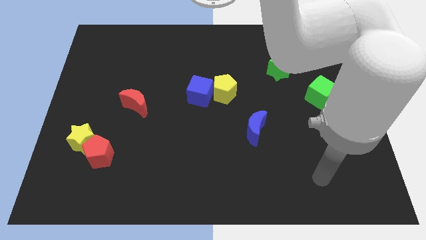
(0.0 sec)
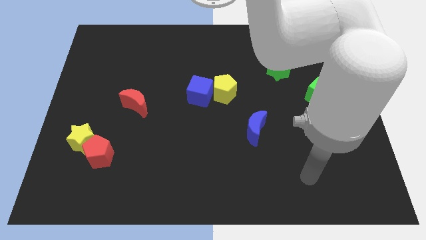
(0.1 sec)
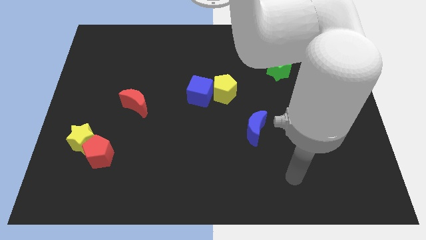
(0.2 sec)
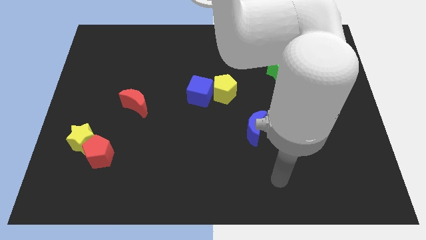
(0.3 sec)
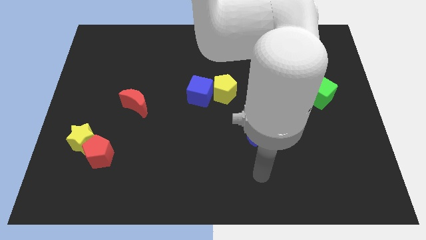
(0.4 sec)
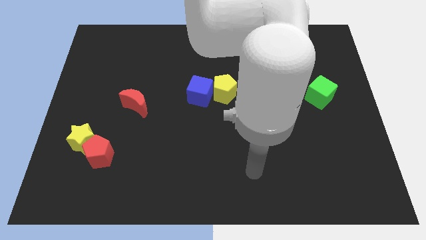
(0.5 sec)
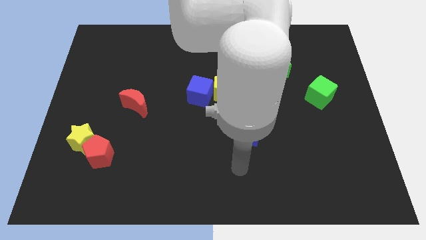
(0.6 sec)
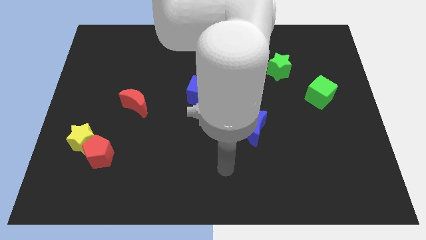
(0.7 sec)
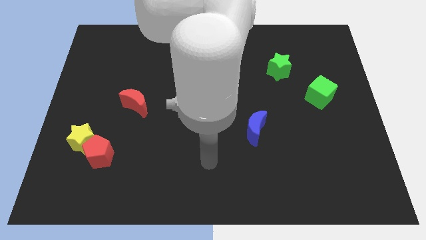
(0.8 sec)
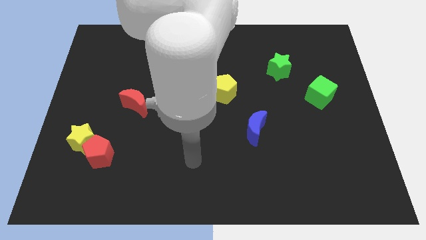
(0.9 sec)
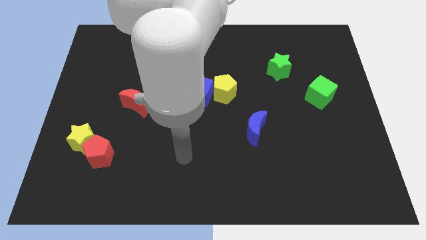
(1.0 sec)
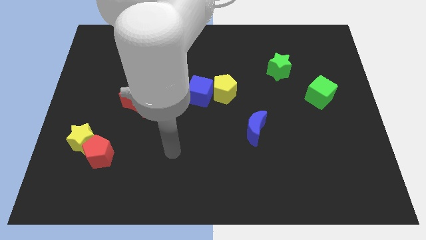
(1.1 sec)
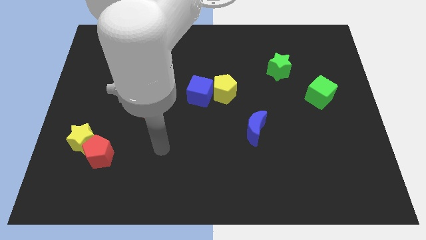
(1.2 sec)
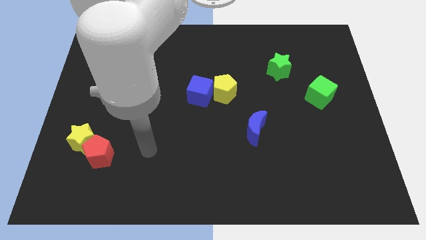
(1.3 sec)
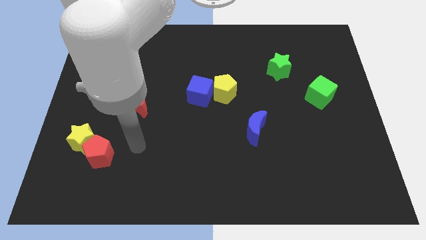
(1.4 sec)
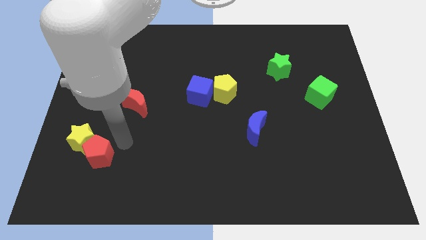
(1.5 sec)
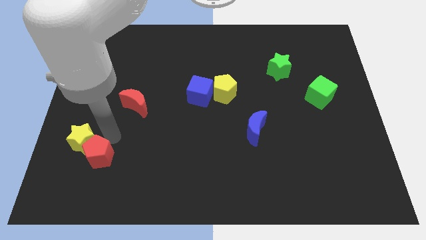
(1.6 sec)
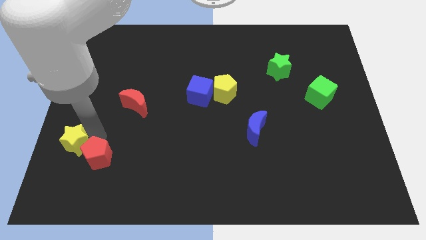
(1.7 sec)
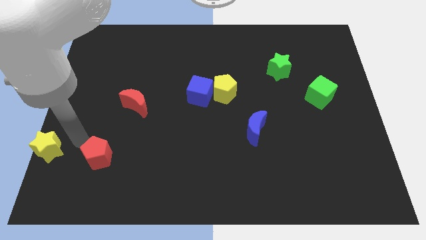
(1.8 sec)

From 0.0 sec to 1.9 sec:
separate the red pentagon from the yellow star

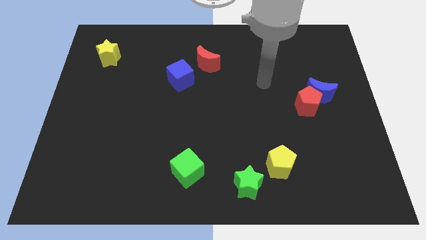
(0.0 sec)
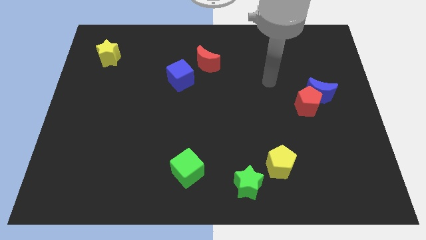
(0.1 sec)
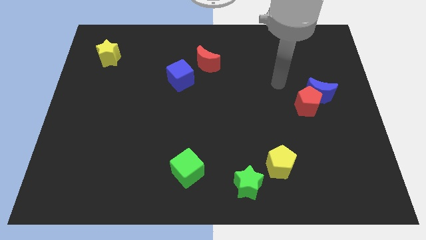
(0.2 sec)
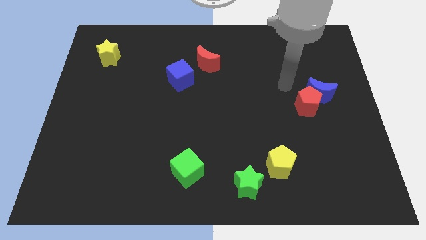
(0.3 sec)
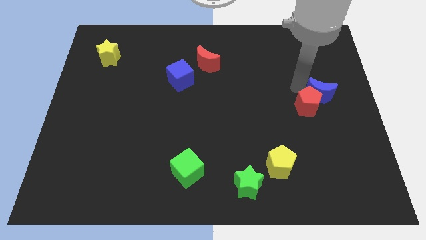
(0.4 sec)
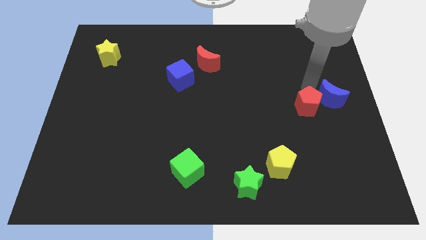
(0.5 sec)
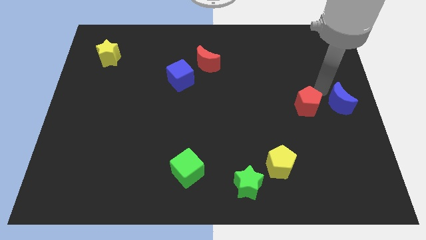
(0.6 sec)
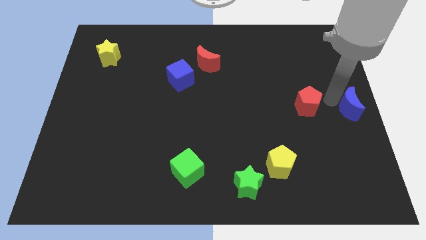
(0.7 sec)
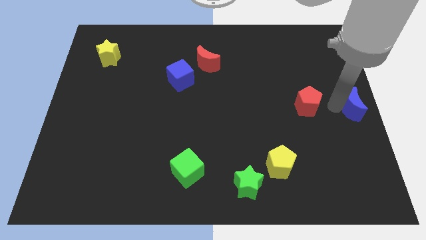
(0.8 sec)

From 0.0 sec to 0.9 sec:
move the red pentagon away from the blue moon

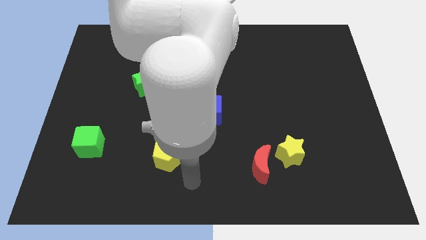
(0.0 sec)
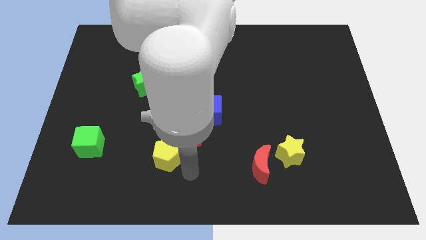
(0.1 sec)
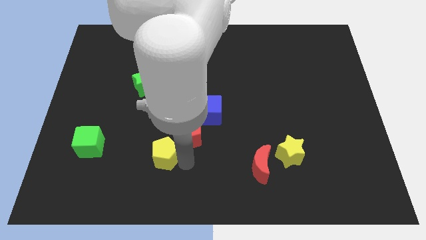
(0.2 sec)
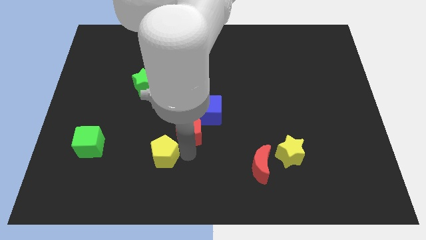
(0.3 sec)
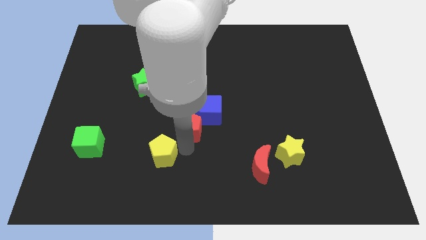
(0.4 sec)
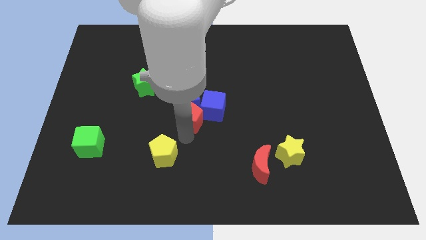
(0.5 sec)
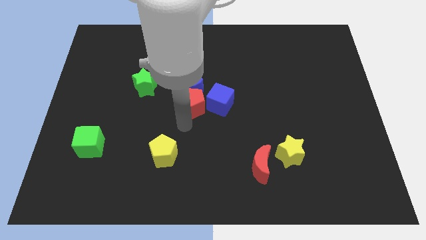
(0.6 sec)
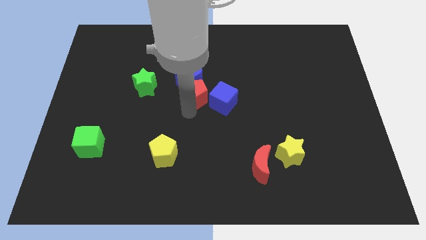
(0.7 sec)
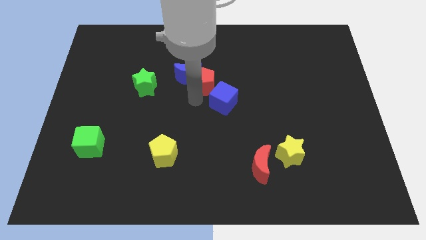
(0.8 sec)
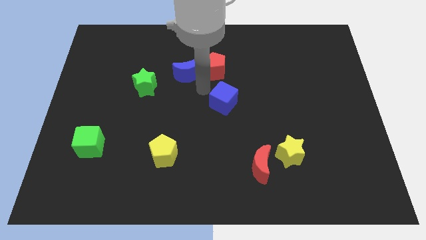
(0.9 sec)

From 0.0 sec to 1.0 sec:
move the blue cube away from the blue moon and red pentagon

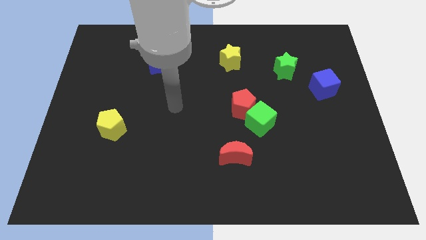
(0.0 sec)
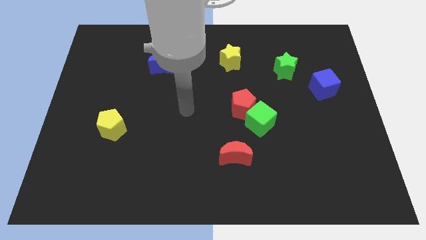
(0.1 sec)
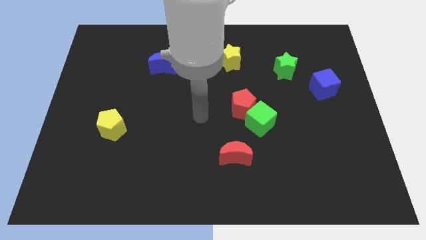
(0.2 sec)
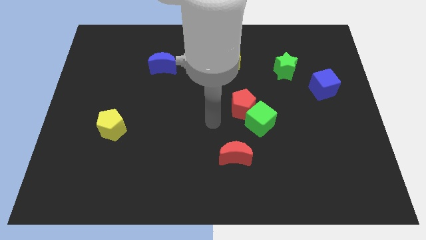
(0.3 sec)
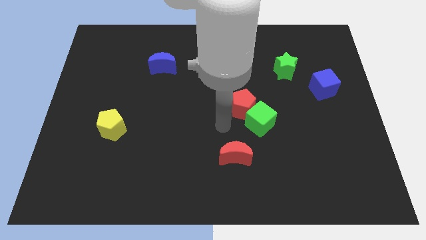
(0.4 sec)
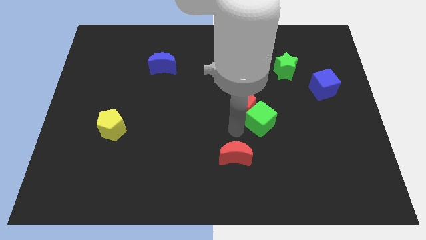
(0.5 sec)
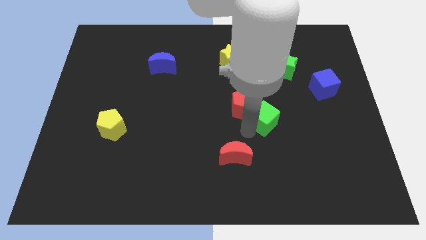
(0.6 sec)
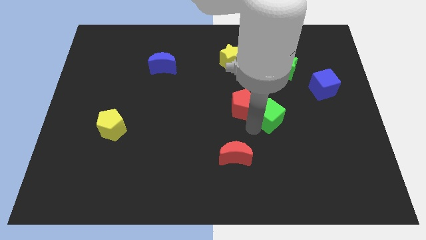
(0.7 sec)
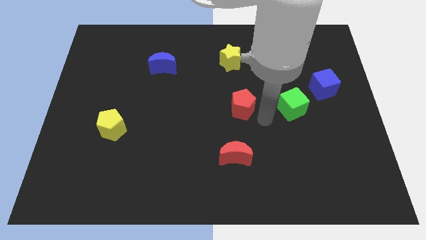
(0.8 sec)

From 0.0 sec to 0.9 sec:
pull the red pentagon apart from the green cube

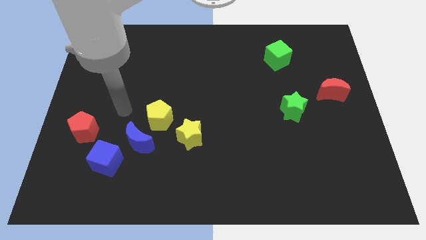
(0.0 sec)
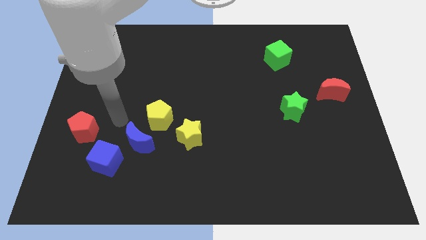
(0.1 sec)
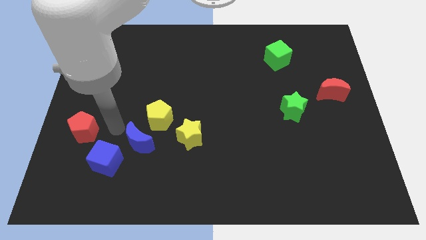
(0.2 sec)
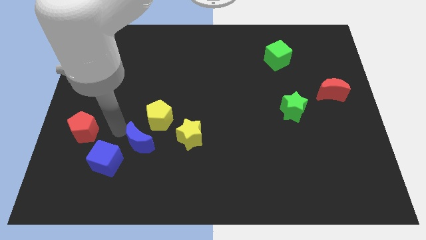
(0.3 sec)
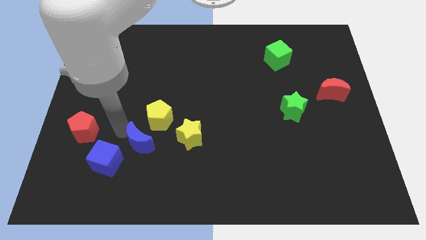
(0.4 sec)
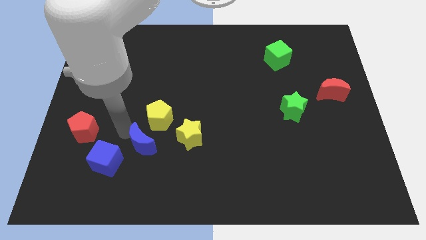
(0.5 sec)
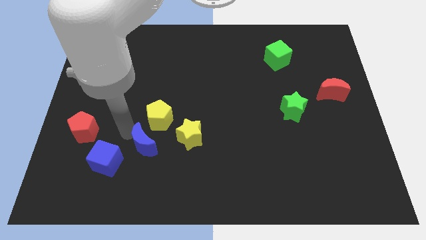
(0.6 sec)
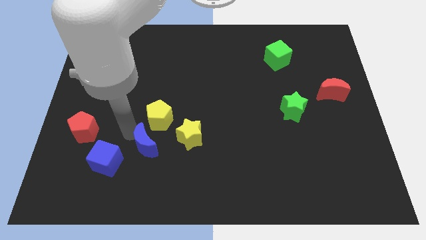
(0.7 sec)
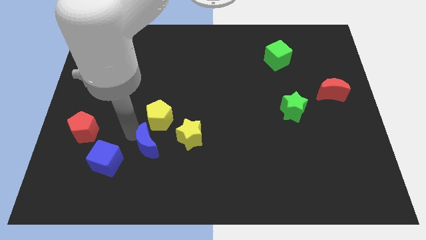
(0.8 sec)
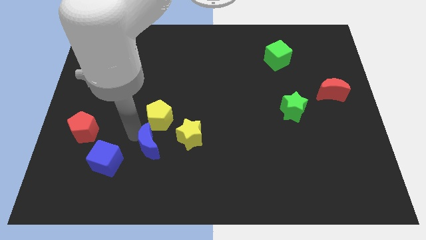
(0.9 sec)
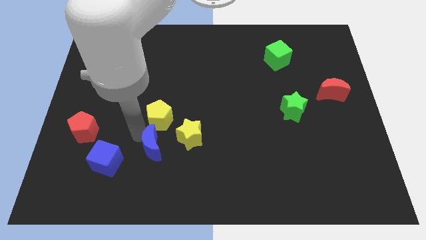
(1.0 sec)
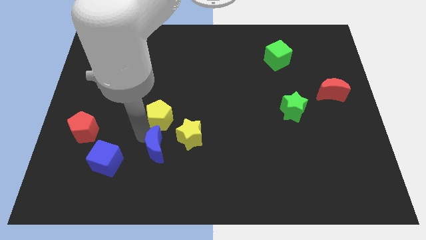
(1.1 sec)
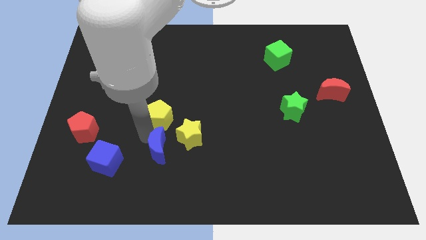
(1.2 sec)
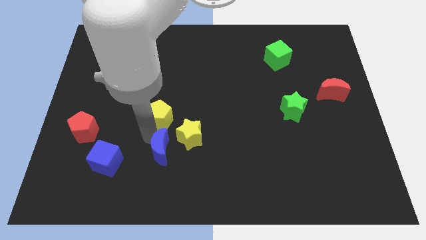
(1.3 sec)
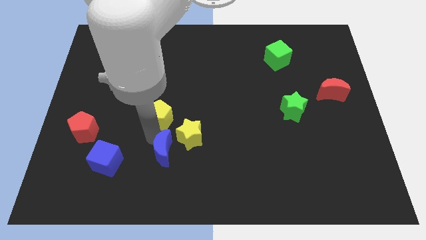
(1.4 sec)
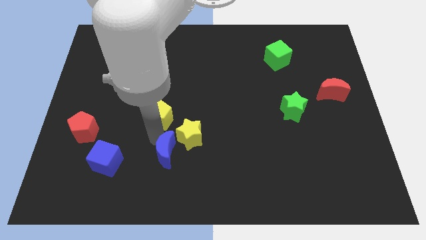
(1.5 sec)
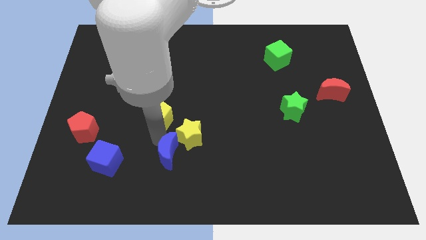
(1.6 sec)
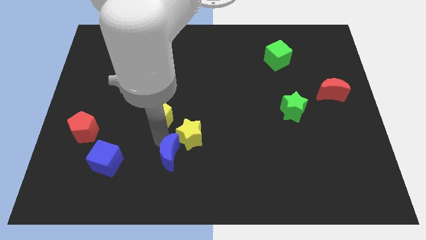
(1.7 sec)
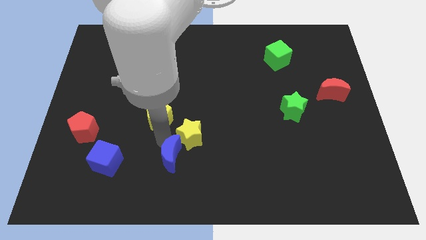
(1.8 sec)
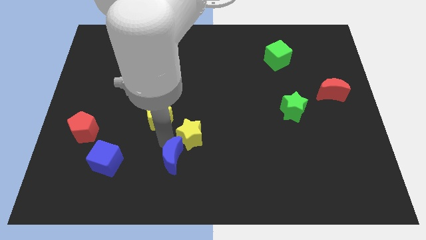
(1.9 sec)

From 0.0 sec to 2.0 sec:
move the blue moon away from the yellow pentagon and blue cube

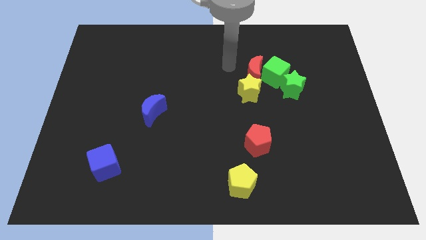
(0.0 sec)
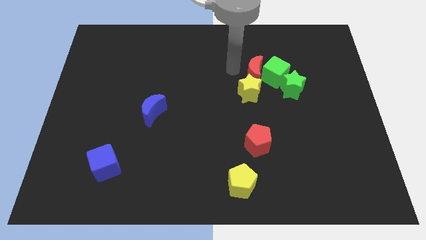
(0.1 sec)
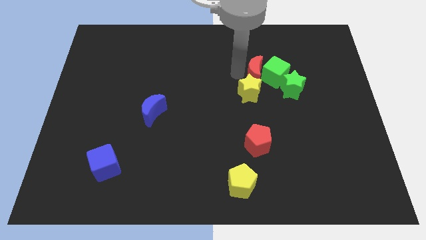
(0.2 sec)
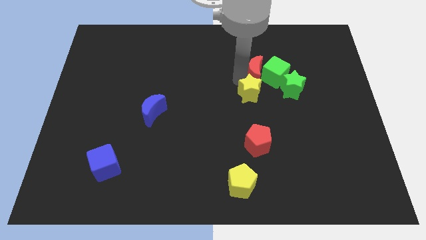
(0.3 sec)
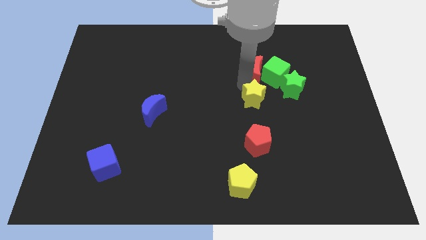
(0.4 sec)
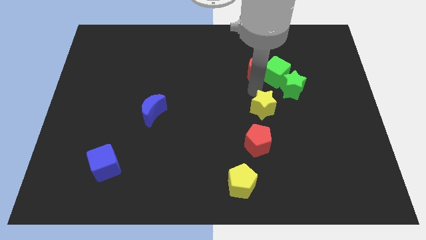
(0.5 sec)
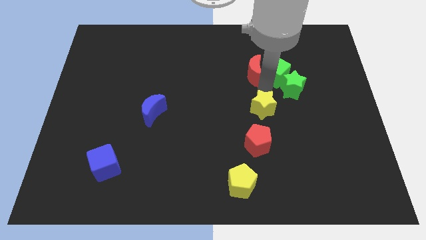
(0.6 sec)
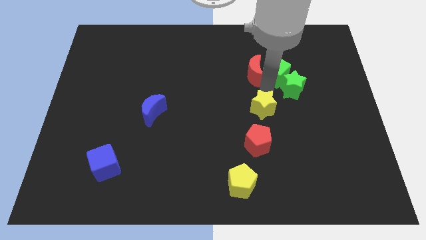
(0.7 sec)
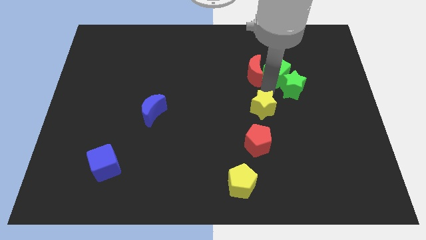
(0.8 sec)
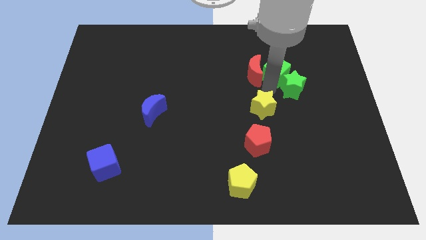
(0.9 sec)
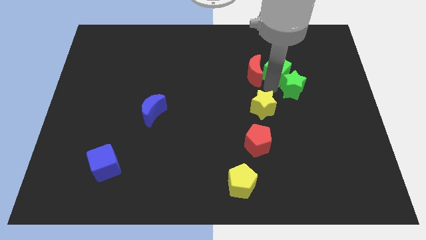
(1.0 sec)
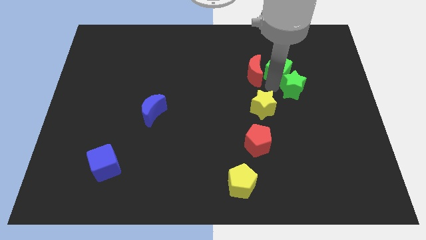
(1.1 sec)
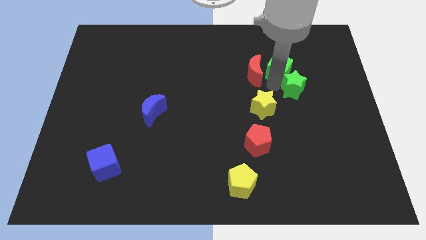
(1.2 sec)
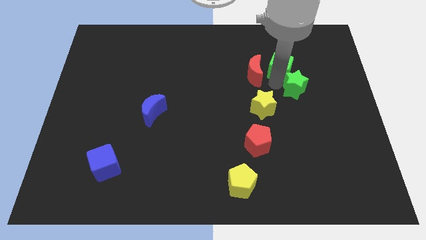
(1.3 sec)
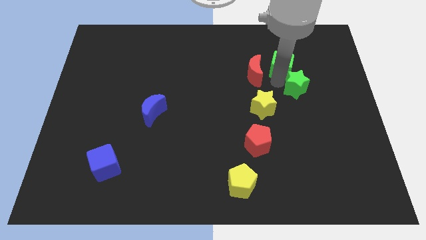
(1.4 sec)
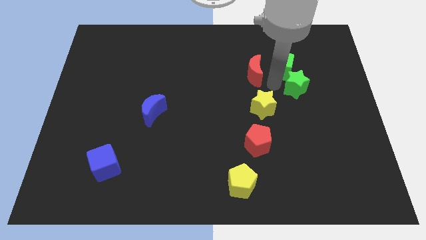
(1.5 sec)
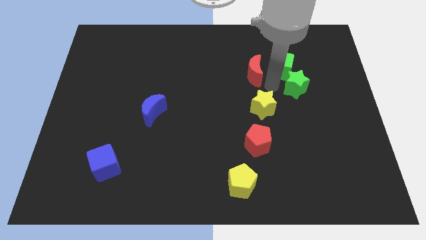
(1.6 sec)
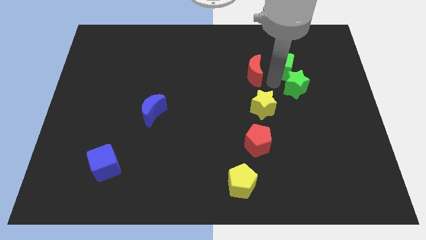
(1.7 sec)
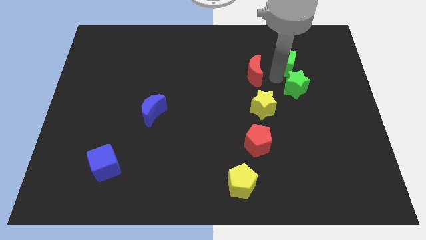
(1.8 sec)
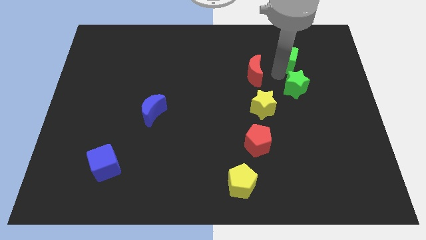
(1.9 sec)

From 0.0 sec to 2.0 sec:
separate the green cube from the group

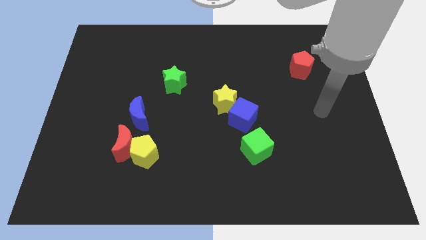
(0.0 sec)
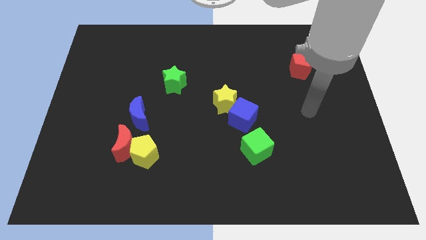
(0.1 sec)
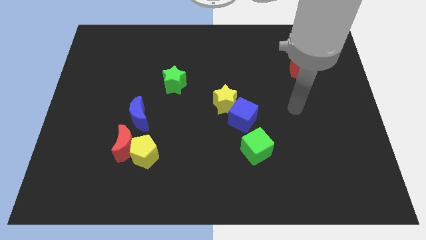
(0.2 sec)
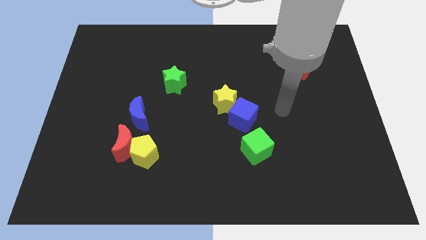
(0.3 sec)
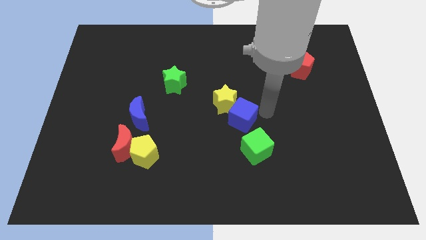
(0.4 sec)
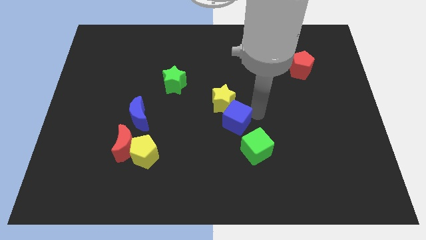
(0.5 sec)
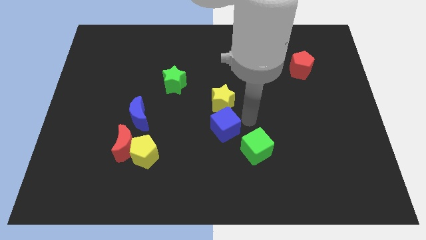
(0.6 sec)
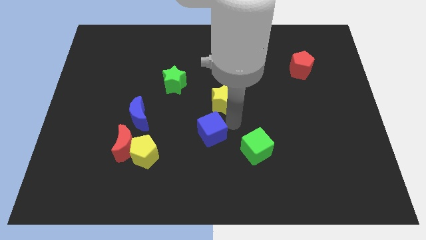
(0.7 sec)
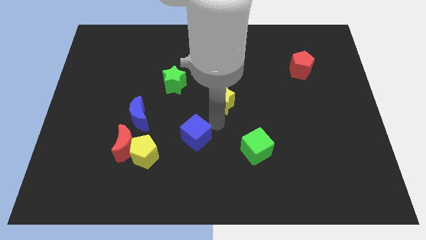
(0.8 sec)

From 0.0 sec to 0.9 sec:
separate the yellow star from the blue cube
